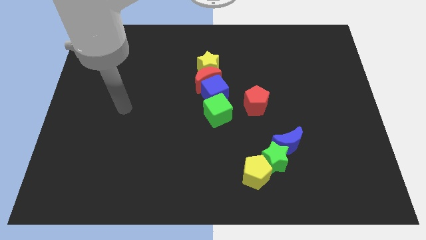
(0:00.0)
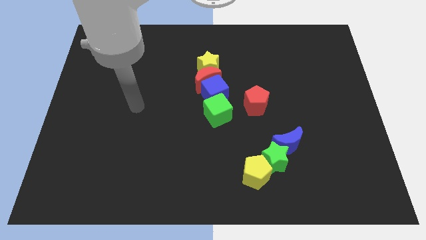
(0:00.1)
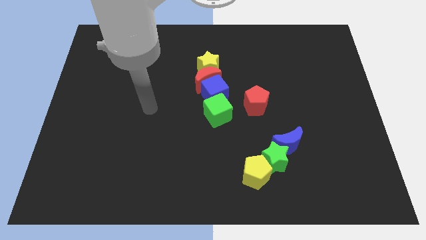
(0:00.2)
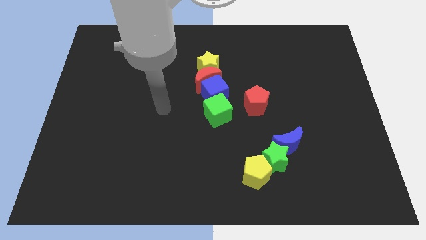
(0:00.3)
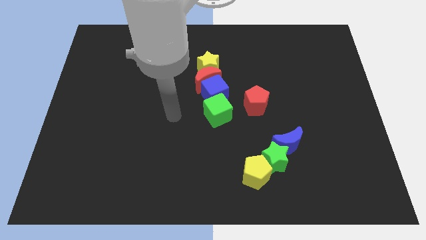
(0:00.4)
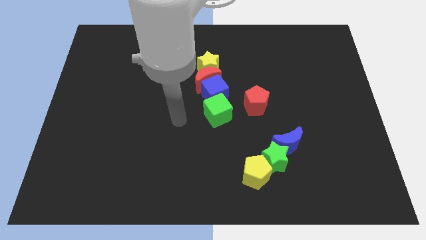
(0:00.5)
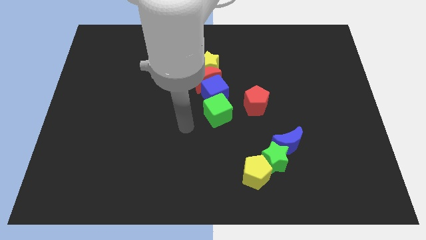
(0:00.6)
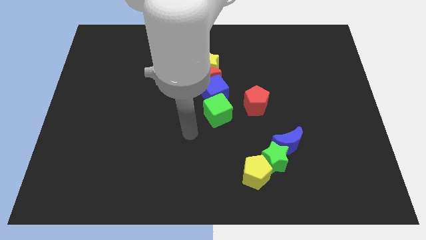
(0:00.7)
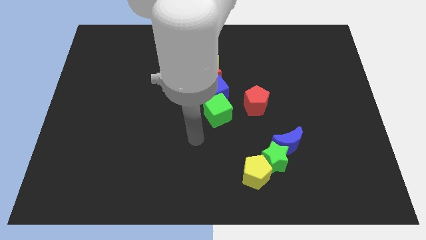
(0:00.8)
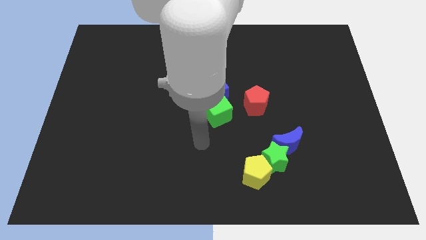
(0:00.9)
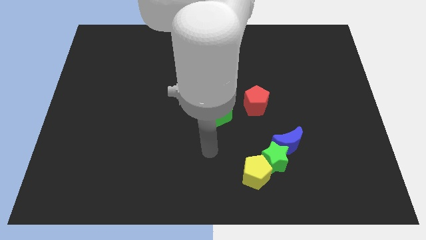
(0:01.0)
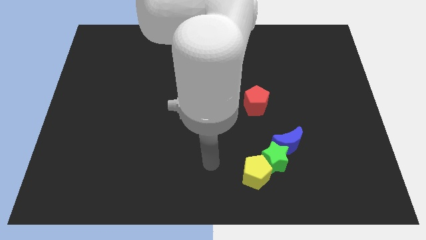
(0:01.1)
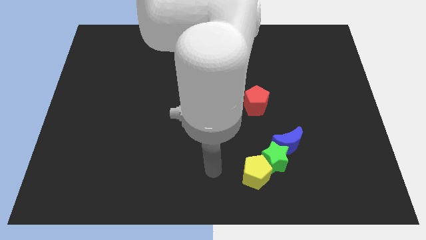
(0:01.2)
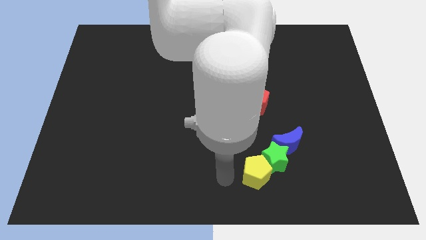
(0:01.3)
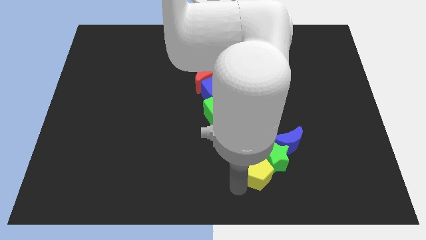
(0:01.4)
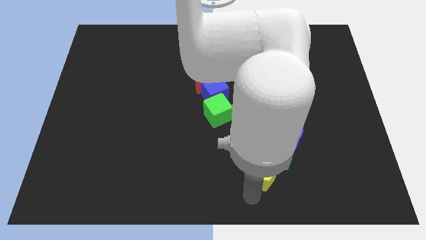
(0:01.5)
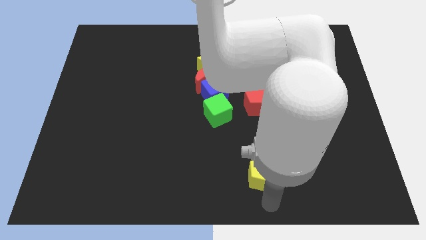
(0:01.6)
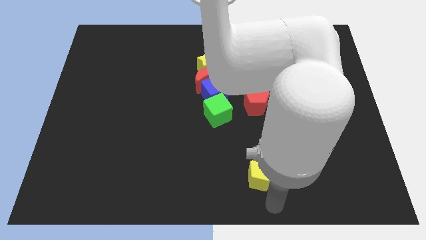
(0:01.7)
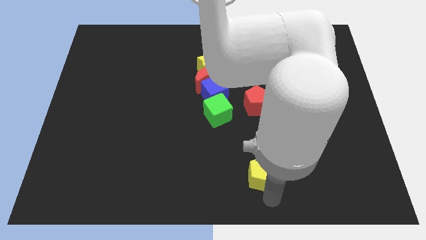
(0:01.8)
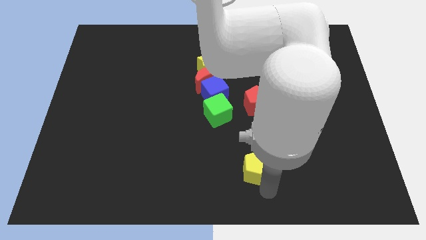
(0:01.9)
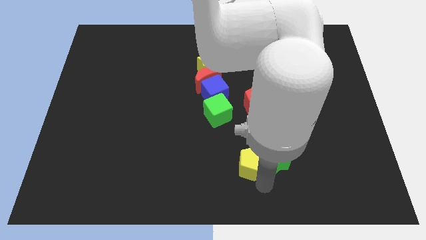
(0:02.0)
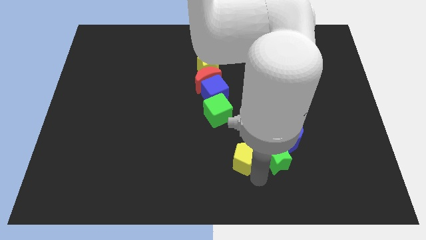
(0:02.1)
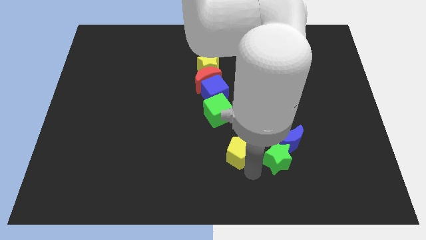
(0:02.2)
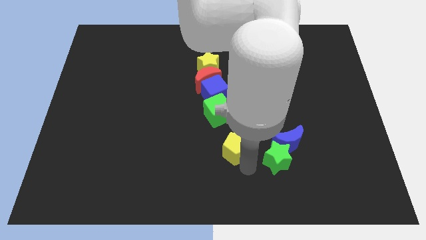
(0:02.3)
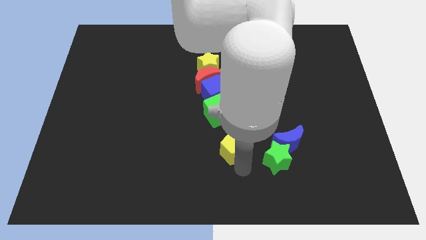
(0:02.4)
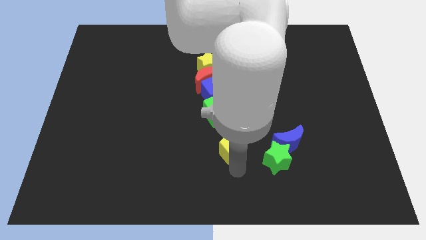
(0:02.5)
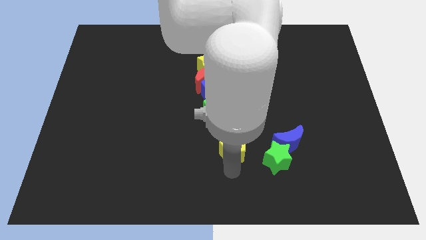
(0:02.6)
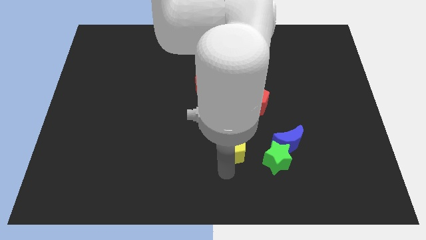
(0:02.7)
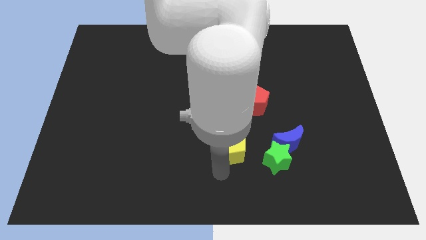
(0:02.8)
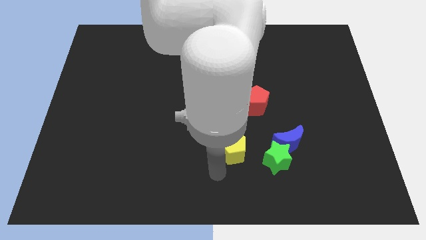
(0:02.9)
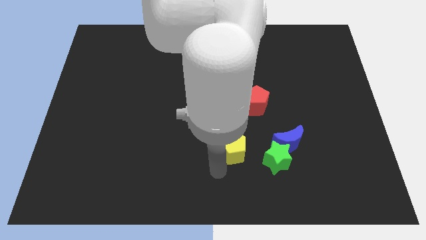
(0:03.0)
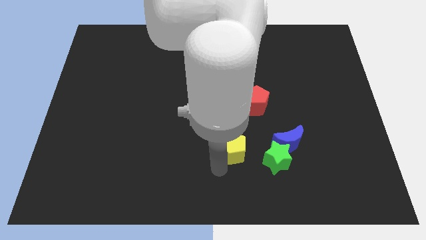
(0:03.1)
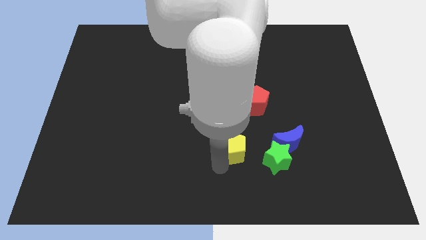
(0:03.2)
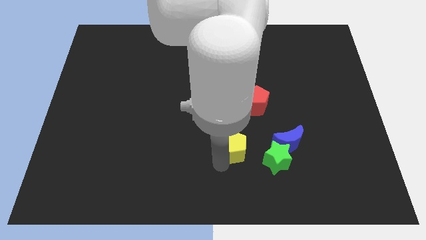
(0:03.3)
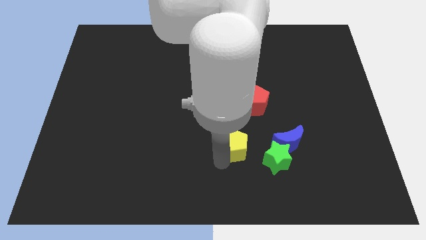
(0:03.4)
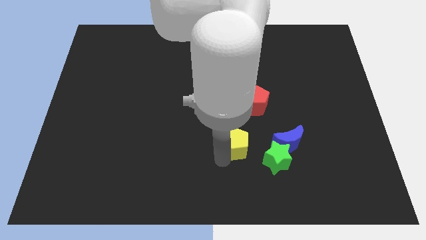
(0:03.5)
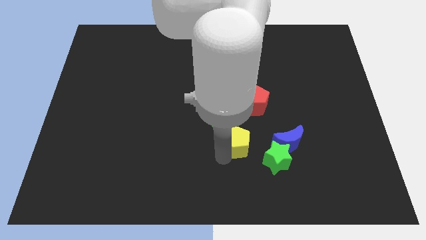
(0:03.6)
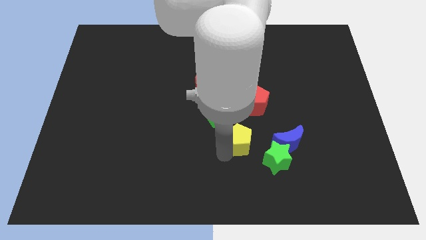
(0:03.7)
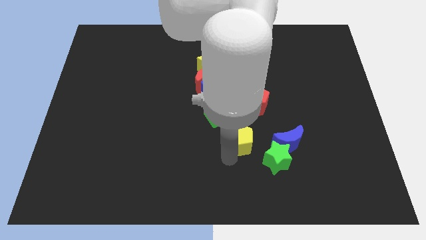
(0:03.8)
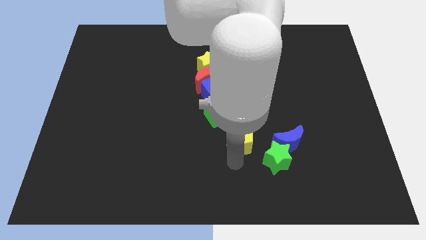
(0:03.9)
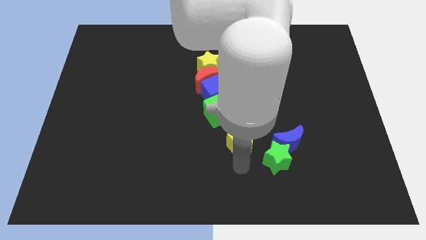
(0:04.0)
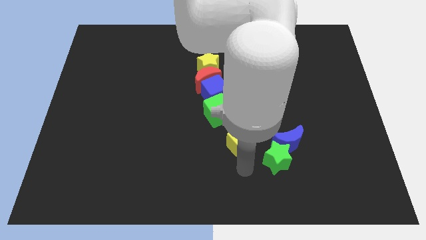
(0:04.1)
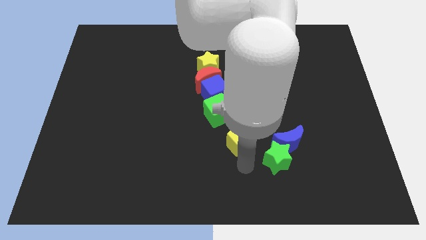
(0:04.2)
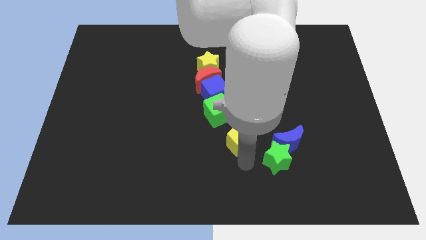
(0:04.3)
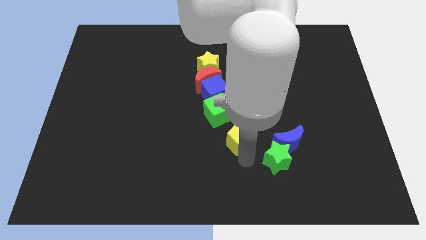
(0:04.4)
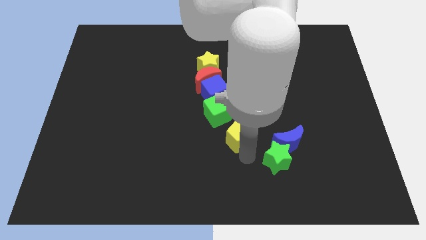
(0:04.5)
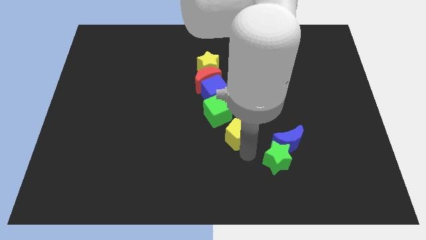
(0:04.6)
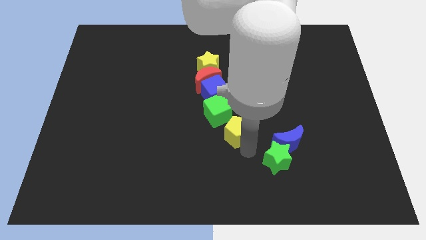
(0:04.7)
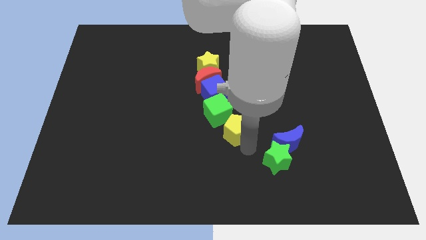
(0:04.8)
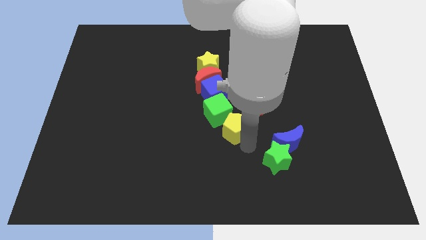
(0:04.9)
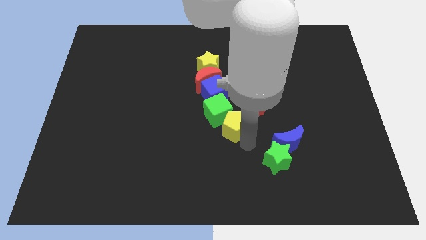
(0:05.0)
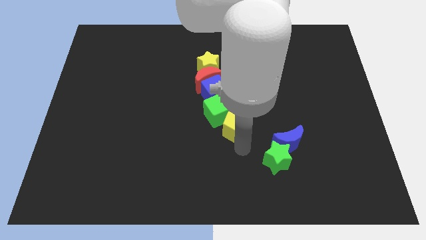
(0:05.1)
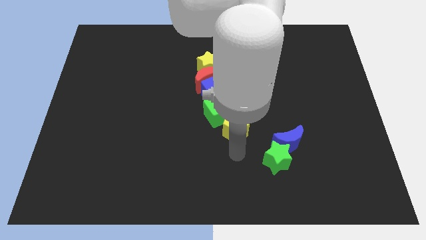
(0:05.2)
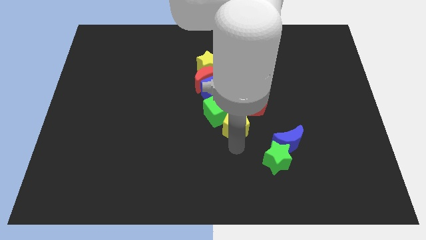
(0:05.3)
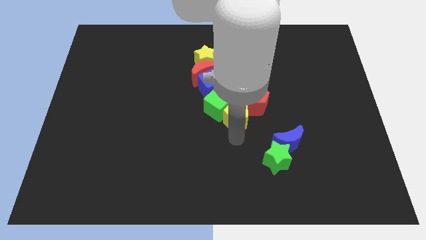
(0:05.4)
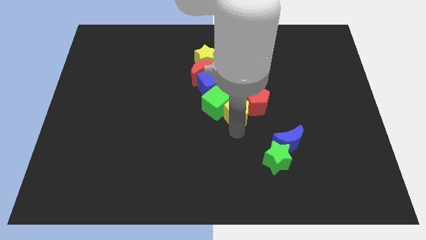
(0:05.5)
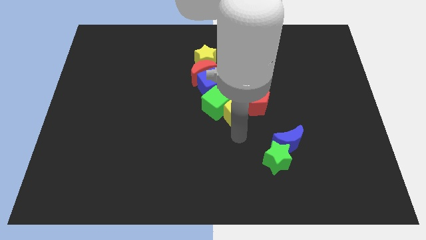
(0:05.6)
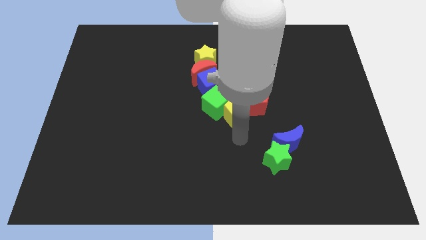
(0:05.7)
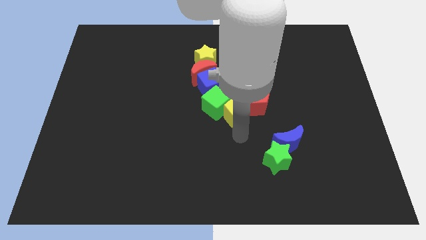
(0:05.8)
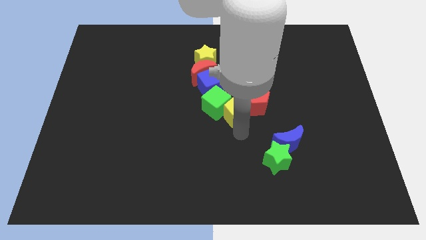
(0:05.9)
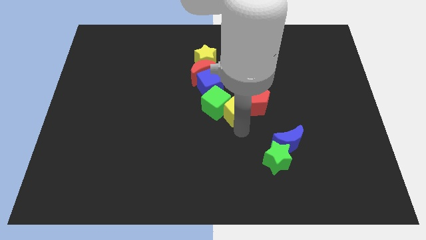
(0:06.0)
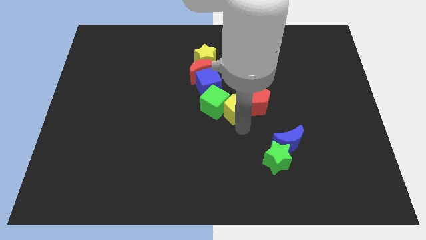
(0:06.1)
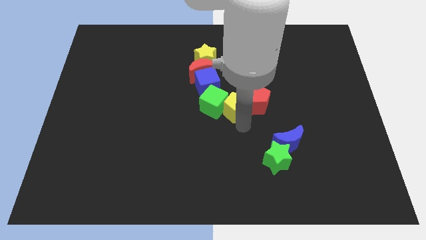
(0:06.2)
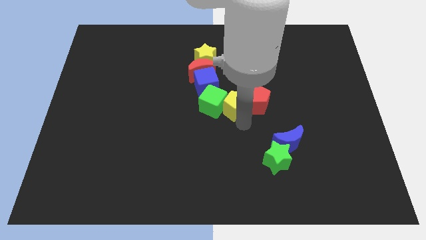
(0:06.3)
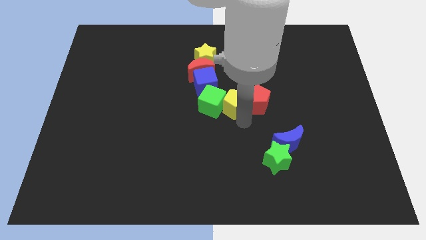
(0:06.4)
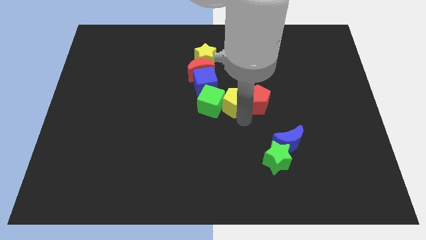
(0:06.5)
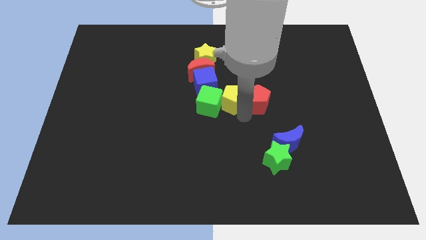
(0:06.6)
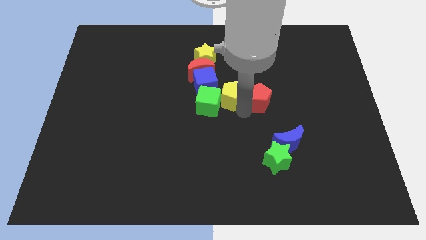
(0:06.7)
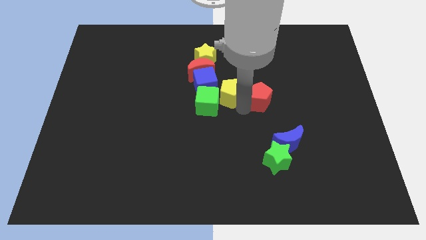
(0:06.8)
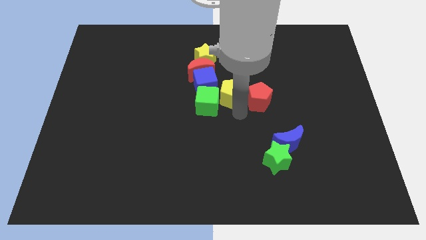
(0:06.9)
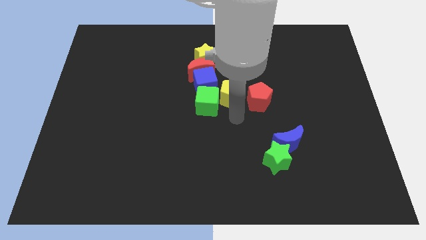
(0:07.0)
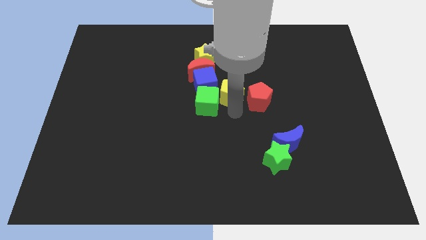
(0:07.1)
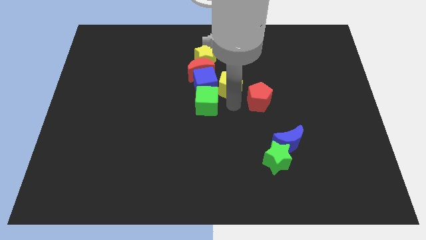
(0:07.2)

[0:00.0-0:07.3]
put the yellow pentagon diagonally up and to the right of the blue cube
